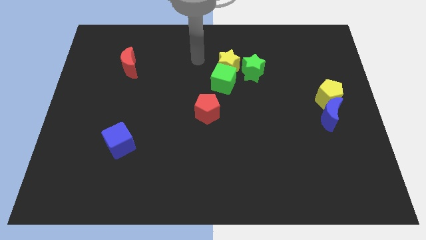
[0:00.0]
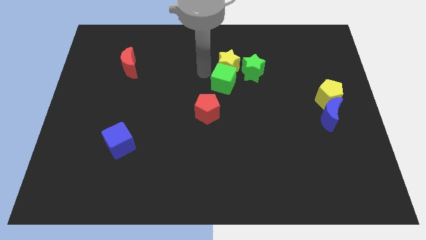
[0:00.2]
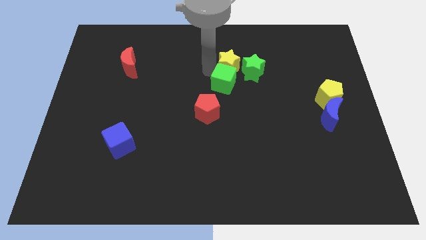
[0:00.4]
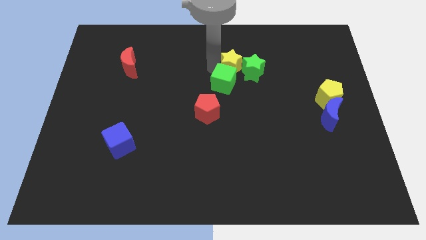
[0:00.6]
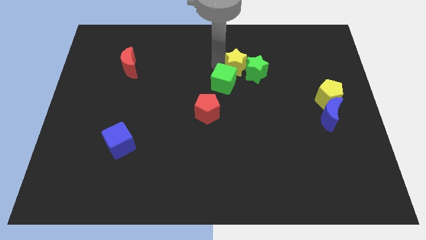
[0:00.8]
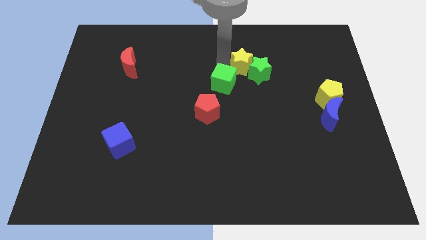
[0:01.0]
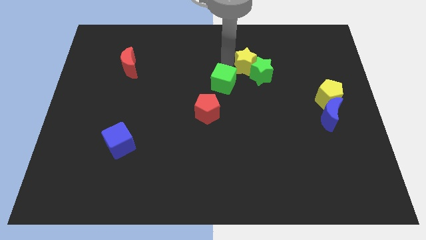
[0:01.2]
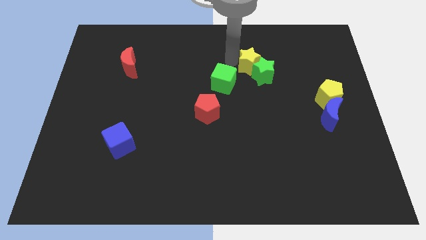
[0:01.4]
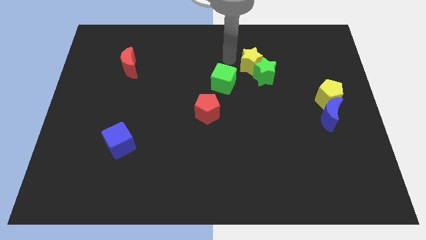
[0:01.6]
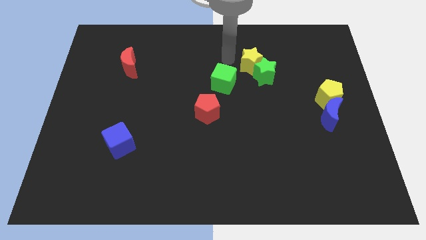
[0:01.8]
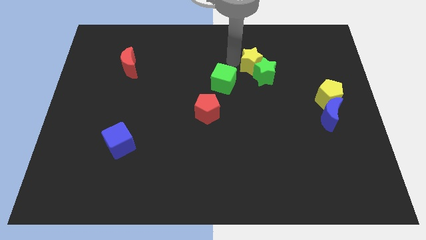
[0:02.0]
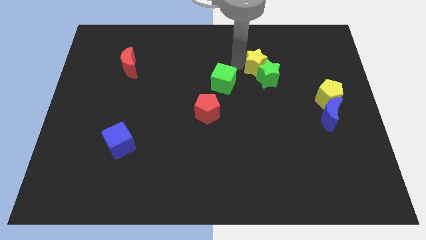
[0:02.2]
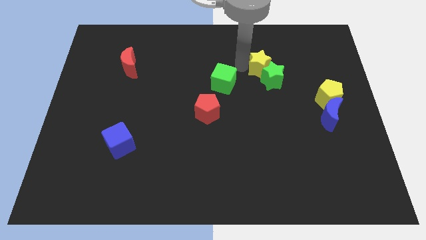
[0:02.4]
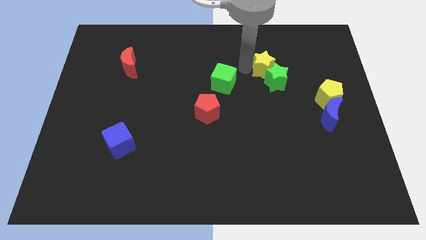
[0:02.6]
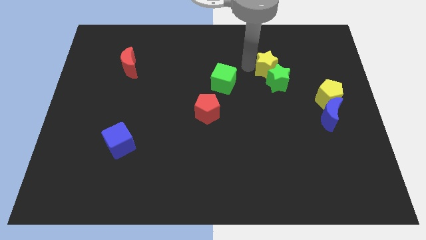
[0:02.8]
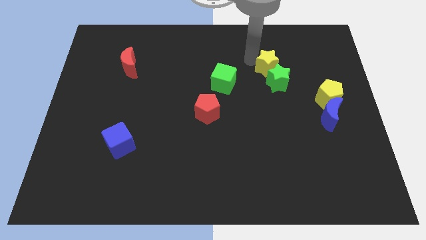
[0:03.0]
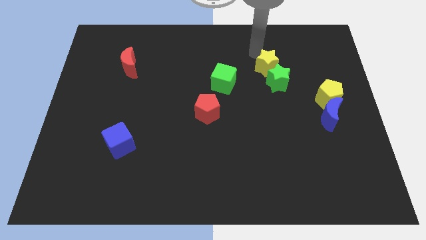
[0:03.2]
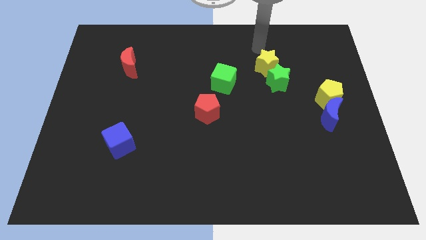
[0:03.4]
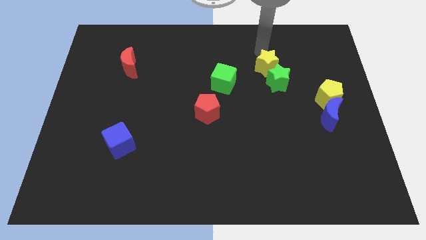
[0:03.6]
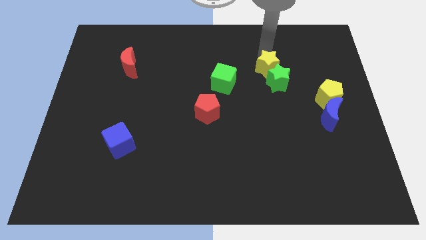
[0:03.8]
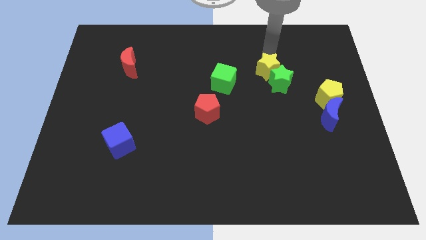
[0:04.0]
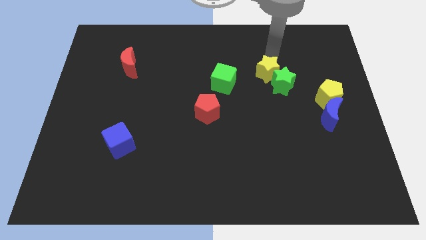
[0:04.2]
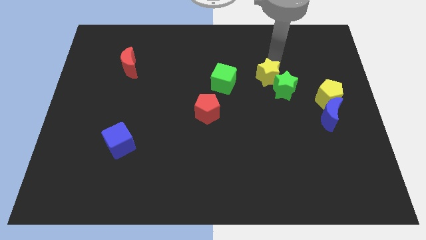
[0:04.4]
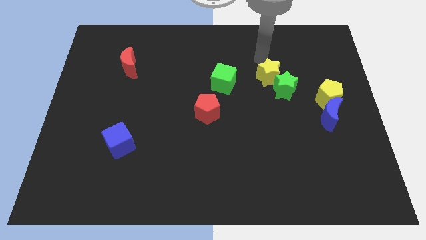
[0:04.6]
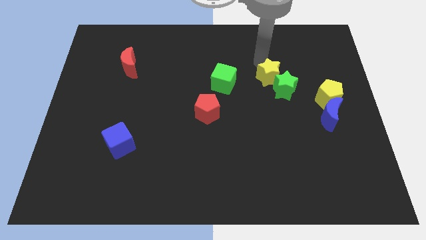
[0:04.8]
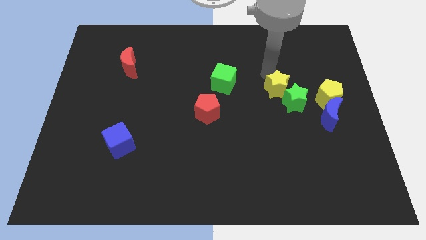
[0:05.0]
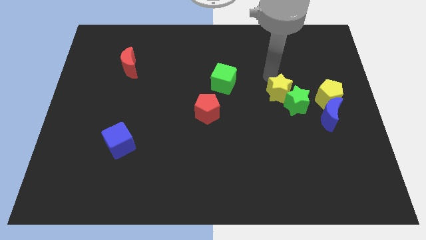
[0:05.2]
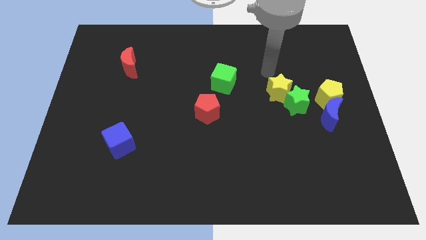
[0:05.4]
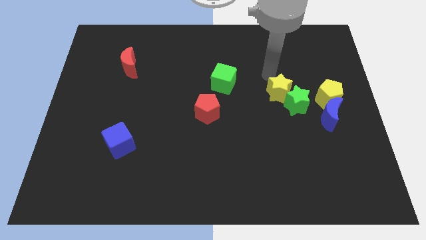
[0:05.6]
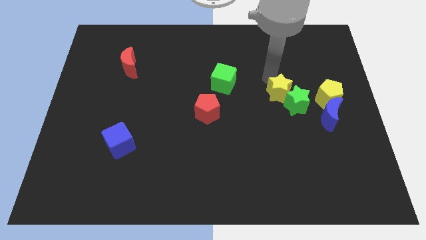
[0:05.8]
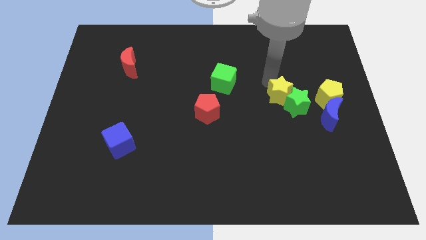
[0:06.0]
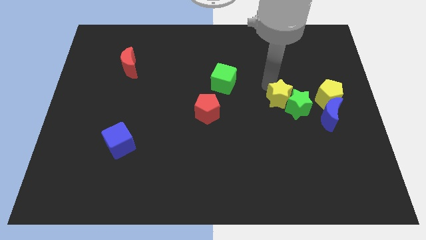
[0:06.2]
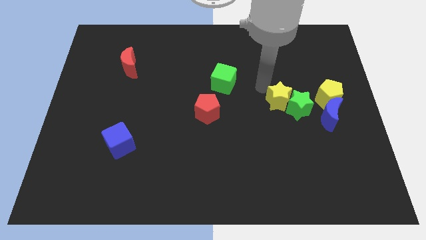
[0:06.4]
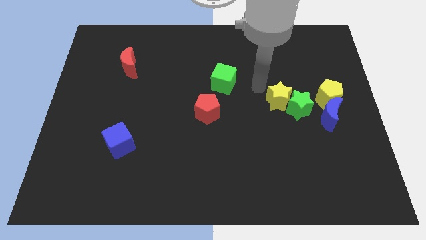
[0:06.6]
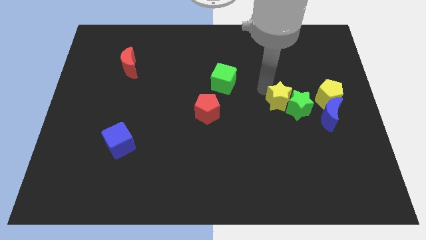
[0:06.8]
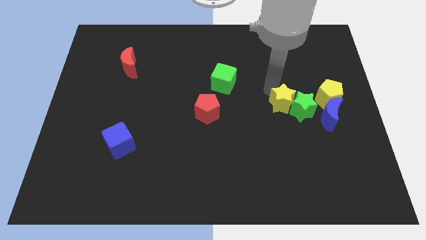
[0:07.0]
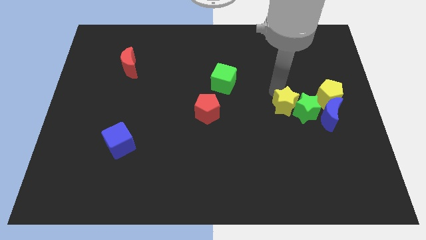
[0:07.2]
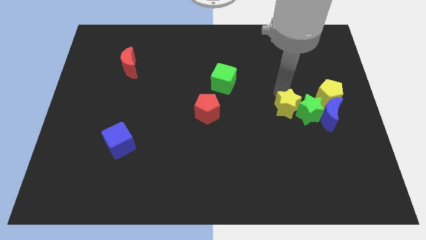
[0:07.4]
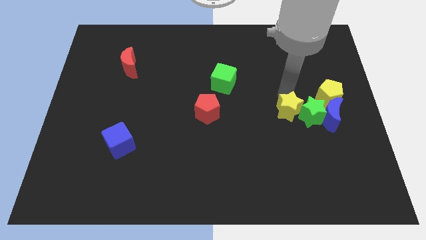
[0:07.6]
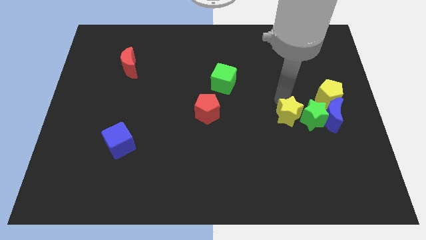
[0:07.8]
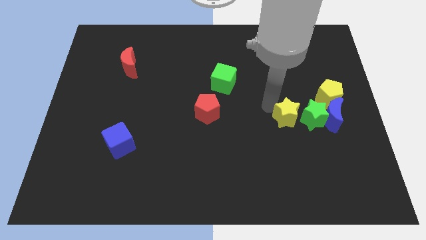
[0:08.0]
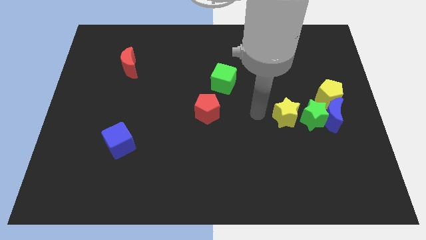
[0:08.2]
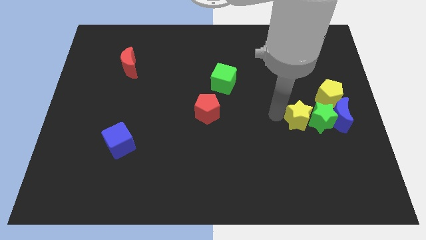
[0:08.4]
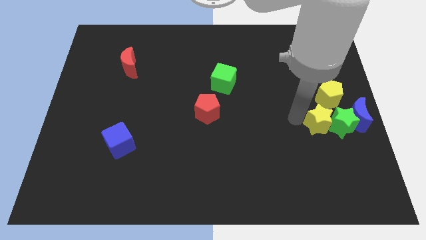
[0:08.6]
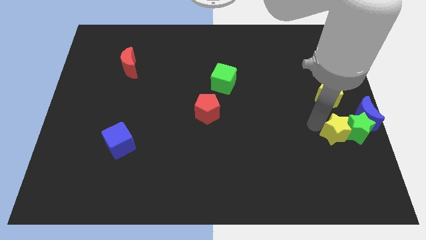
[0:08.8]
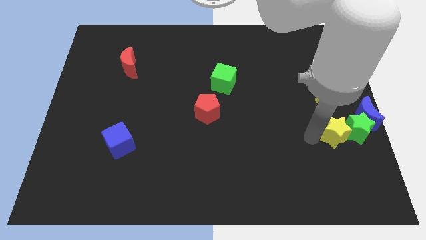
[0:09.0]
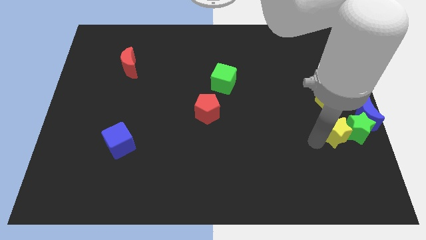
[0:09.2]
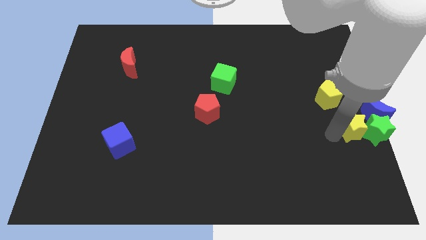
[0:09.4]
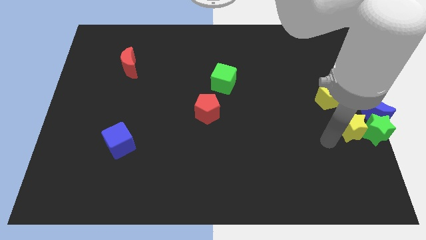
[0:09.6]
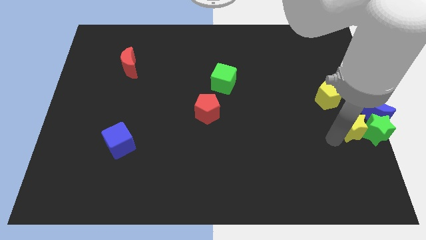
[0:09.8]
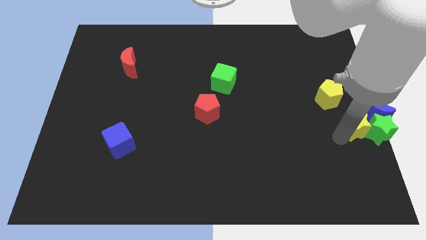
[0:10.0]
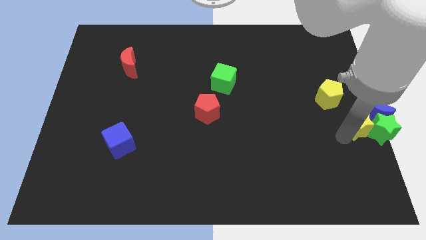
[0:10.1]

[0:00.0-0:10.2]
push the yellow star to the blue moon

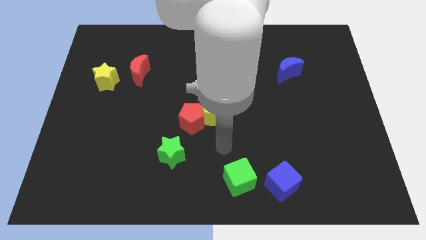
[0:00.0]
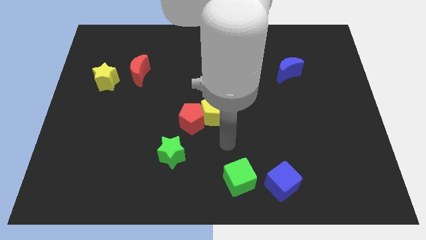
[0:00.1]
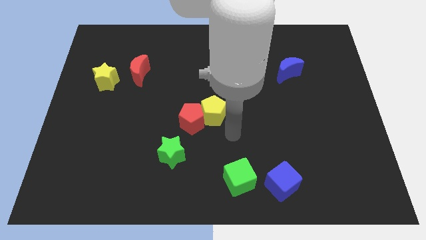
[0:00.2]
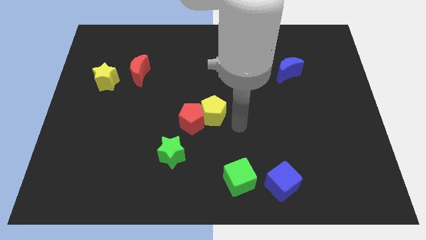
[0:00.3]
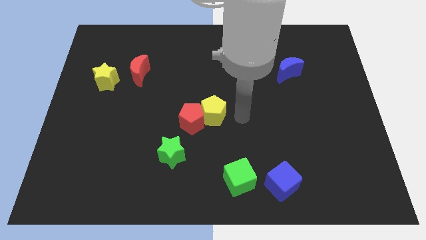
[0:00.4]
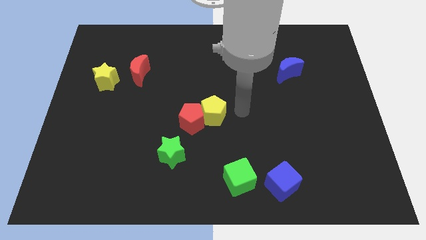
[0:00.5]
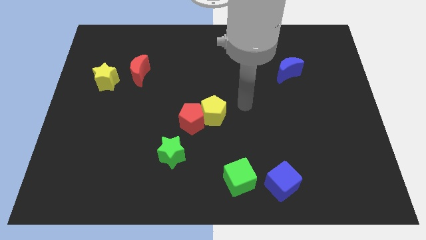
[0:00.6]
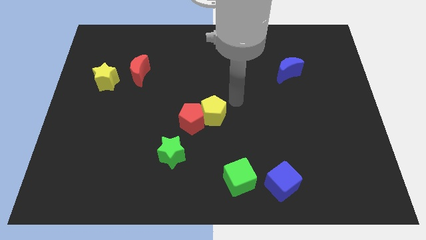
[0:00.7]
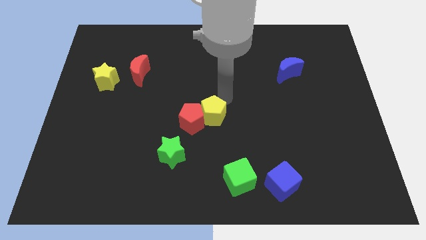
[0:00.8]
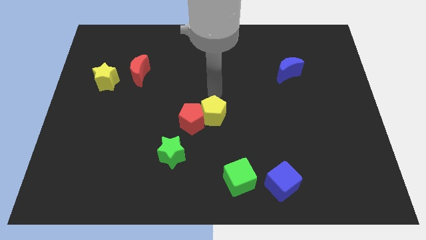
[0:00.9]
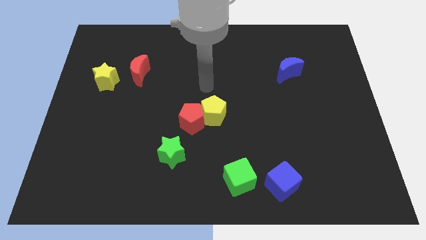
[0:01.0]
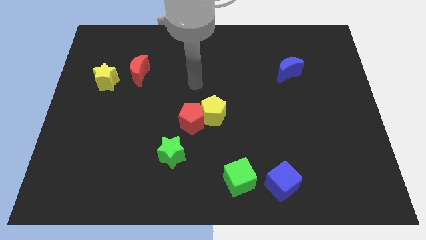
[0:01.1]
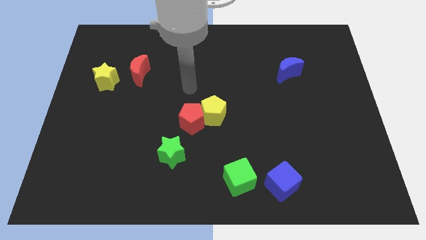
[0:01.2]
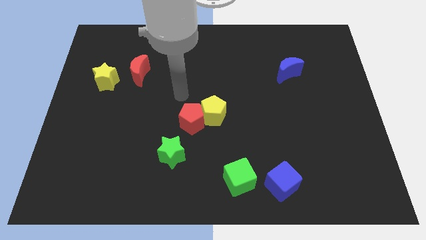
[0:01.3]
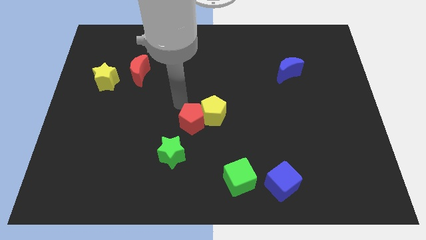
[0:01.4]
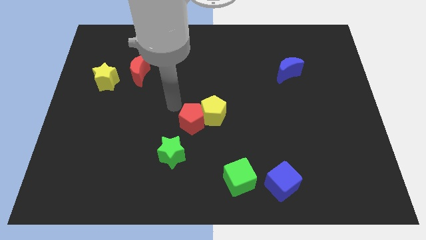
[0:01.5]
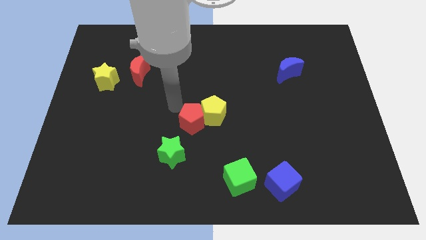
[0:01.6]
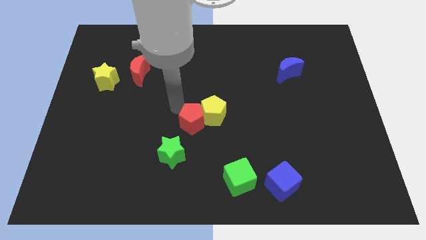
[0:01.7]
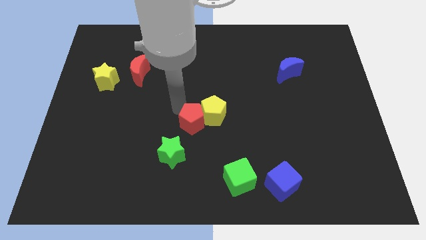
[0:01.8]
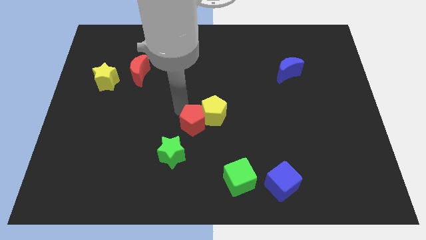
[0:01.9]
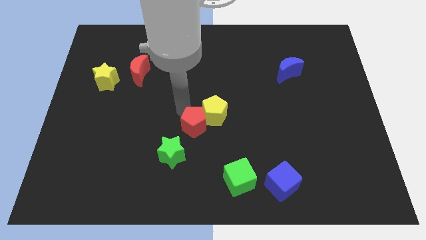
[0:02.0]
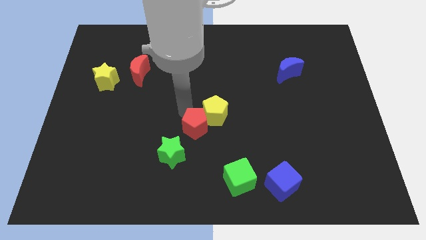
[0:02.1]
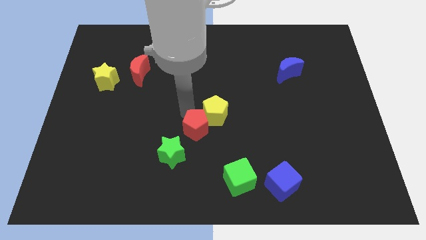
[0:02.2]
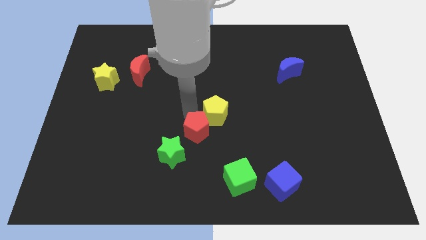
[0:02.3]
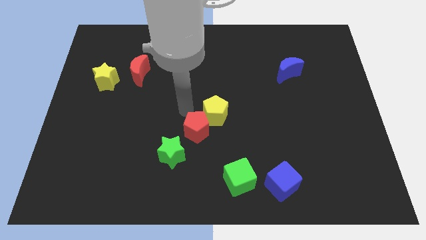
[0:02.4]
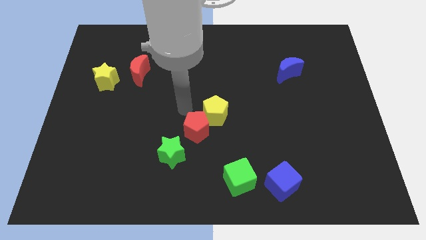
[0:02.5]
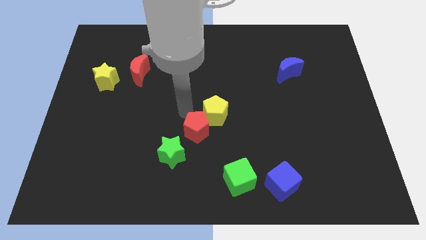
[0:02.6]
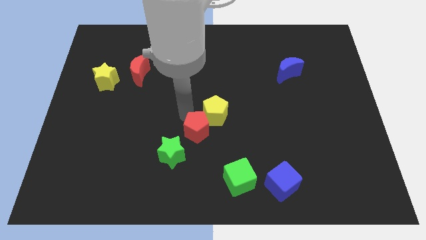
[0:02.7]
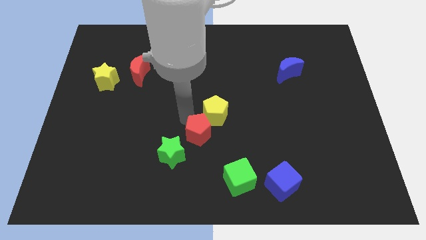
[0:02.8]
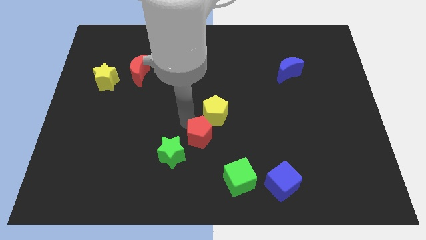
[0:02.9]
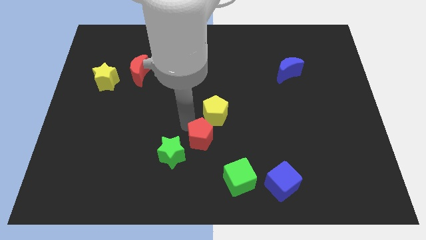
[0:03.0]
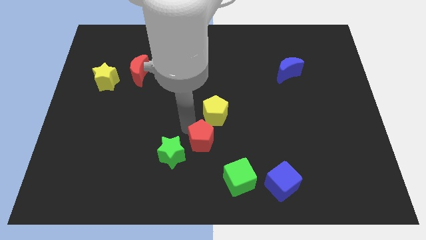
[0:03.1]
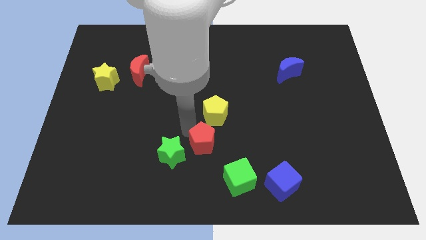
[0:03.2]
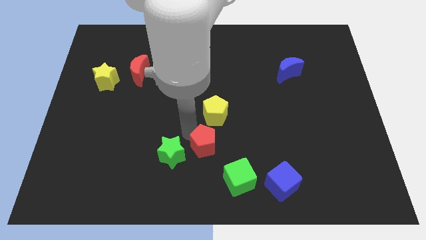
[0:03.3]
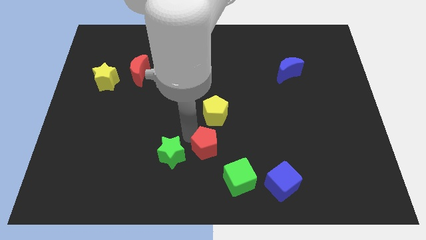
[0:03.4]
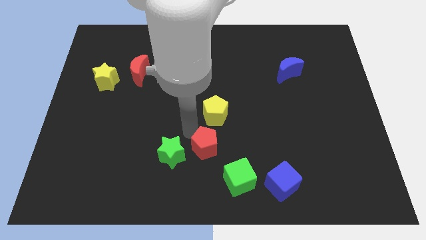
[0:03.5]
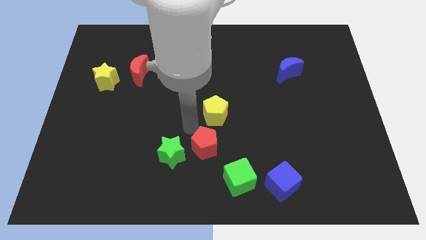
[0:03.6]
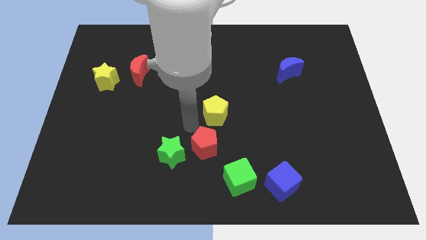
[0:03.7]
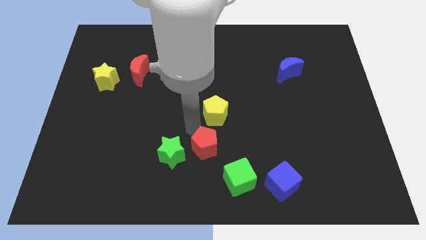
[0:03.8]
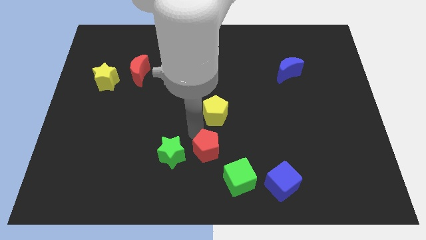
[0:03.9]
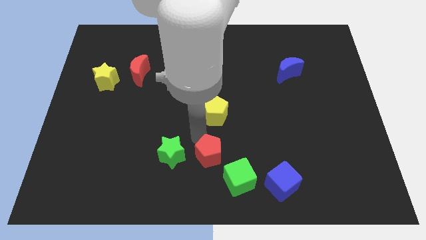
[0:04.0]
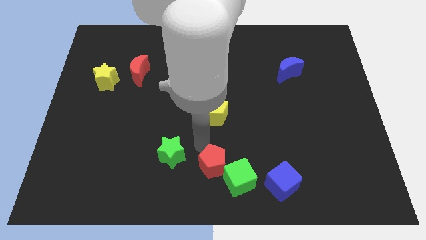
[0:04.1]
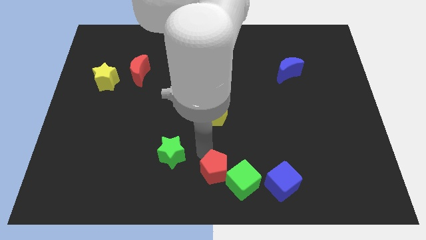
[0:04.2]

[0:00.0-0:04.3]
move the red pentagon close to the green cube
